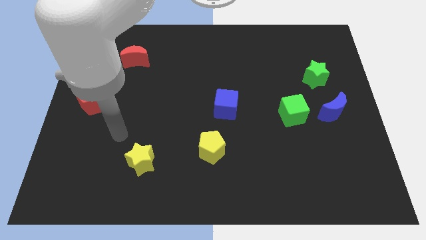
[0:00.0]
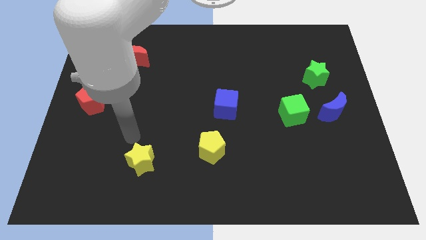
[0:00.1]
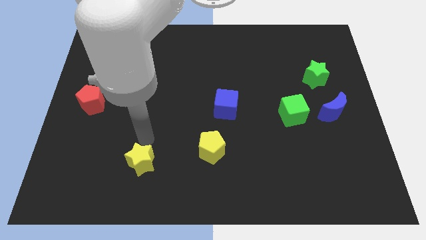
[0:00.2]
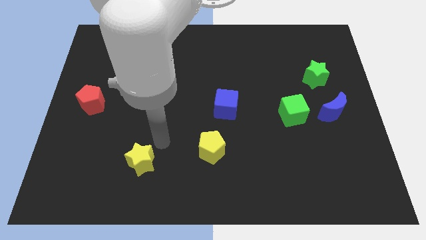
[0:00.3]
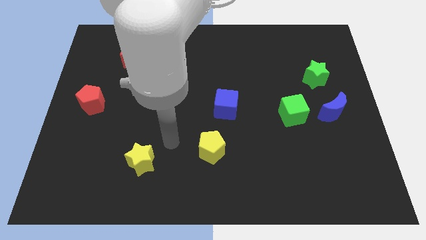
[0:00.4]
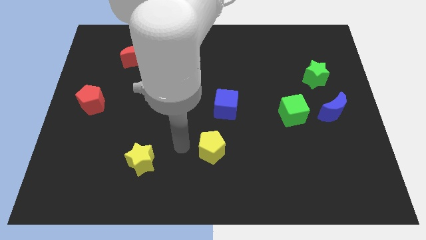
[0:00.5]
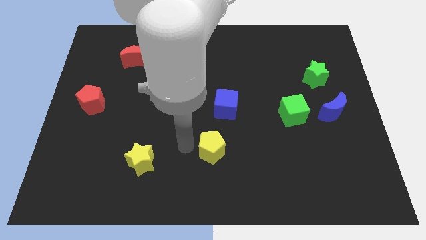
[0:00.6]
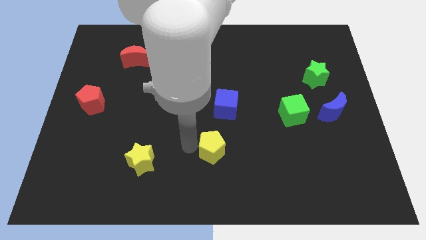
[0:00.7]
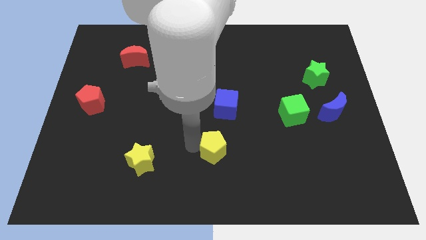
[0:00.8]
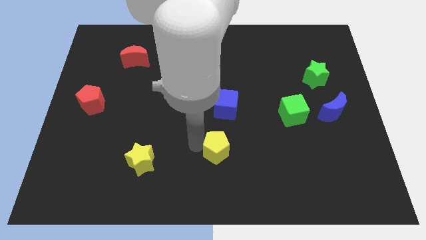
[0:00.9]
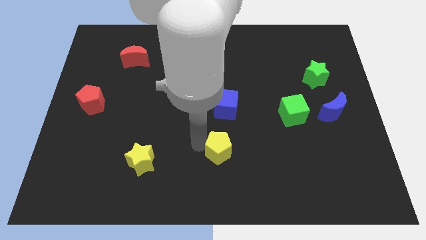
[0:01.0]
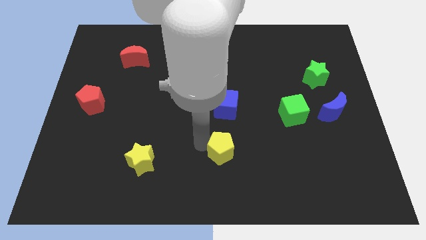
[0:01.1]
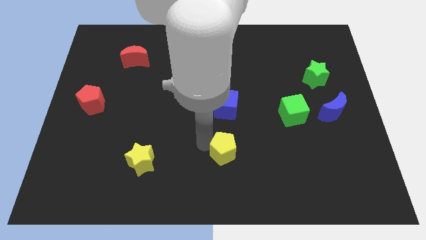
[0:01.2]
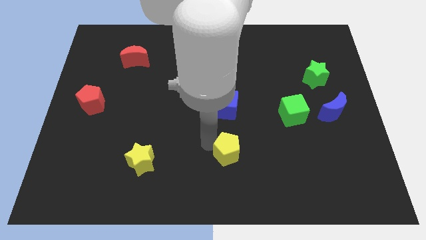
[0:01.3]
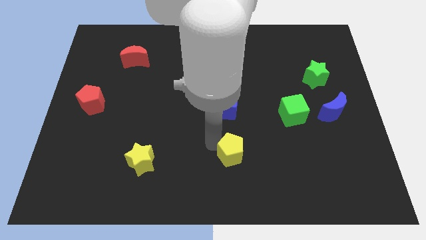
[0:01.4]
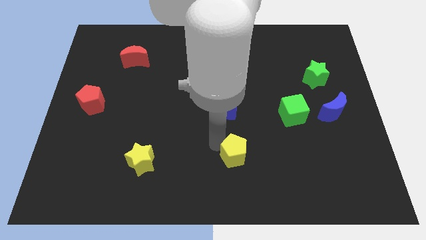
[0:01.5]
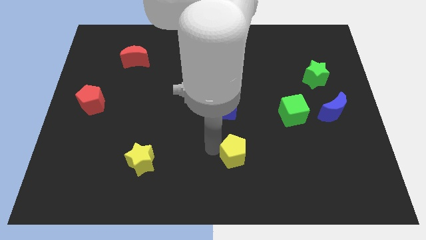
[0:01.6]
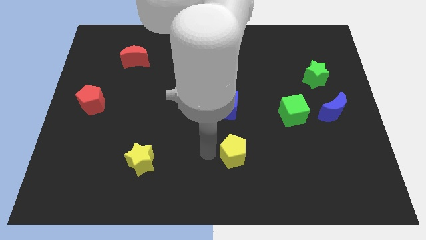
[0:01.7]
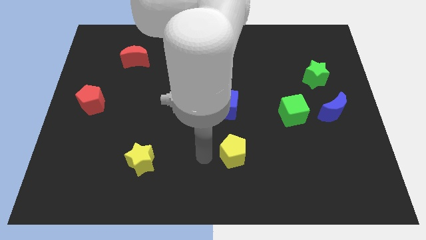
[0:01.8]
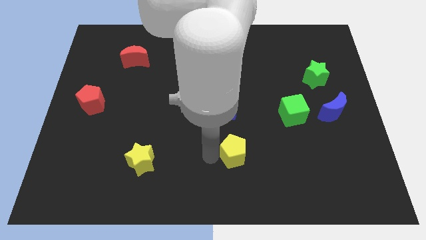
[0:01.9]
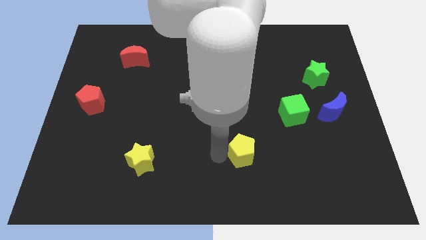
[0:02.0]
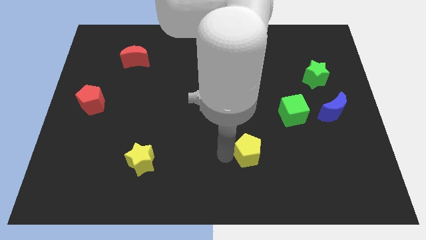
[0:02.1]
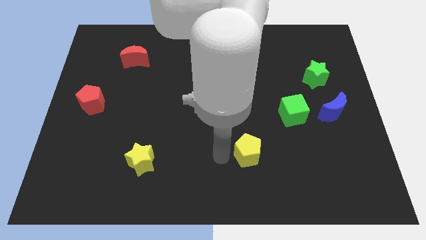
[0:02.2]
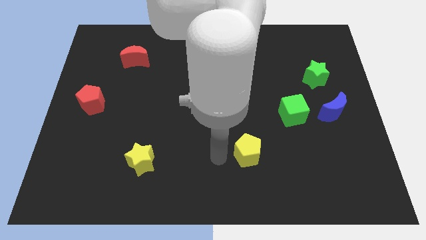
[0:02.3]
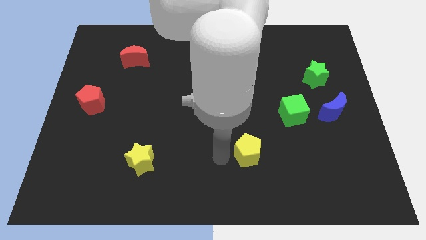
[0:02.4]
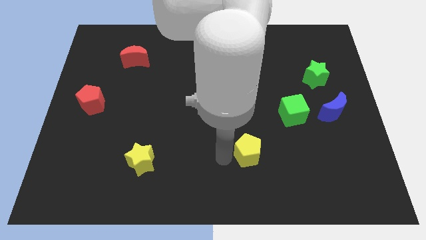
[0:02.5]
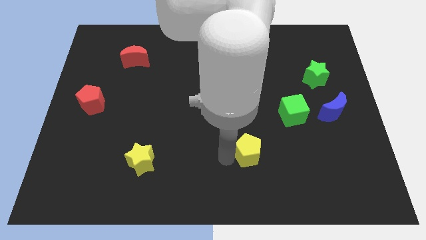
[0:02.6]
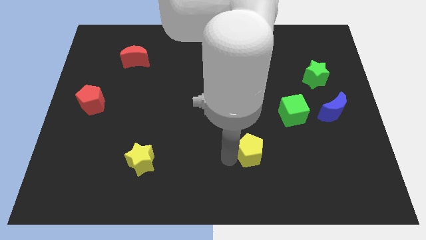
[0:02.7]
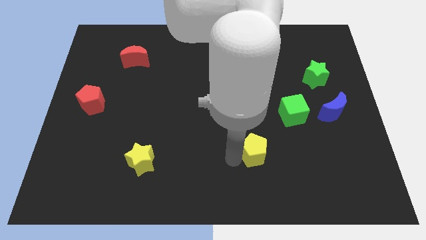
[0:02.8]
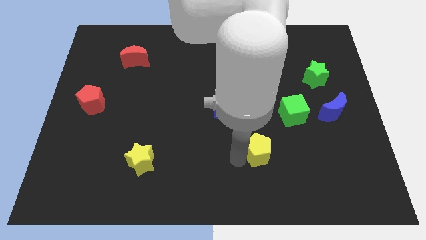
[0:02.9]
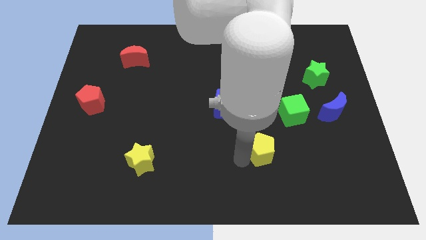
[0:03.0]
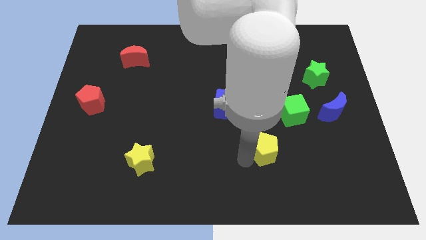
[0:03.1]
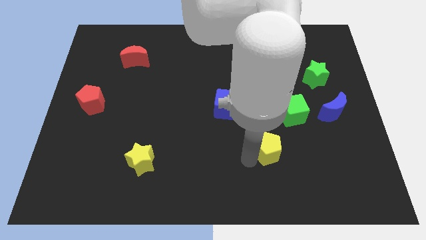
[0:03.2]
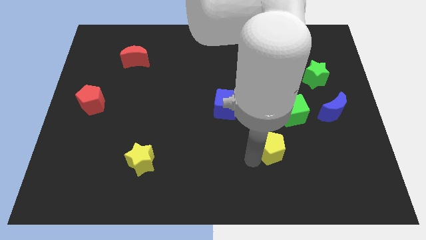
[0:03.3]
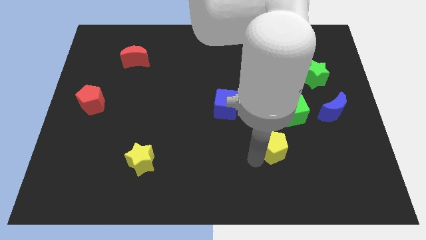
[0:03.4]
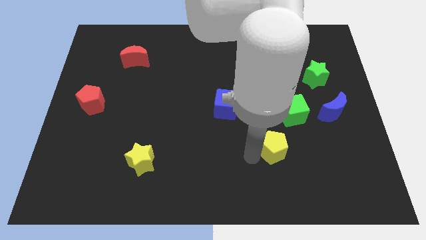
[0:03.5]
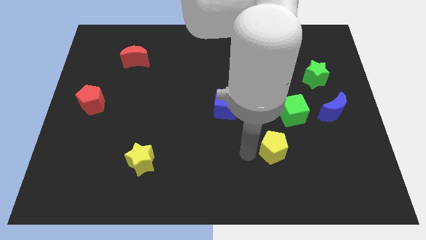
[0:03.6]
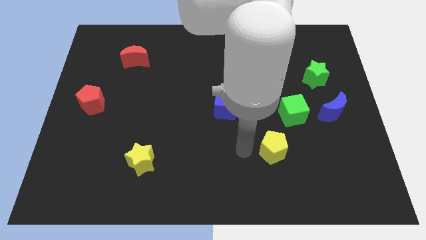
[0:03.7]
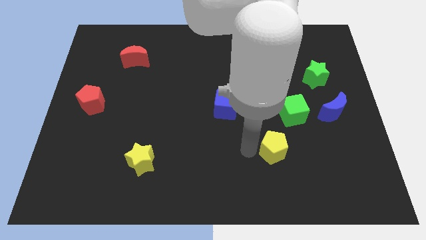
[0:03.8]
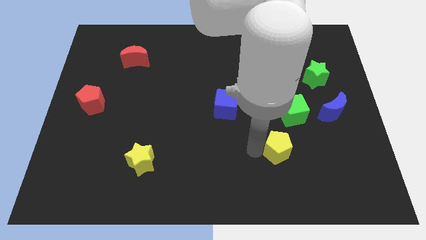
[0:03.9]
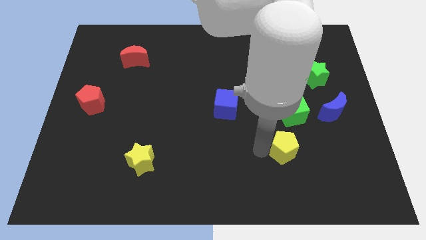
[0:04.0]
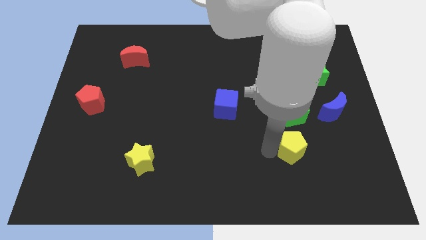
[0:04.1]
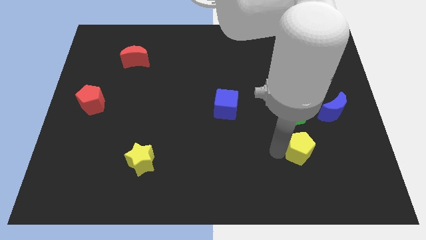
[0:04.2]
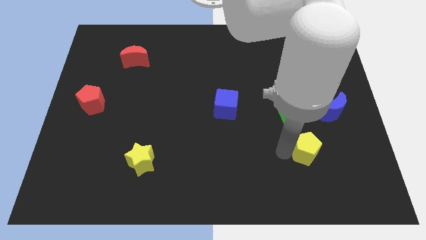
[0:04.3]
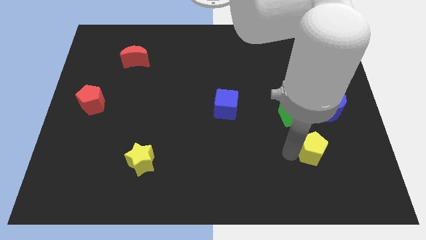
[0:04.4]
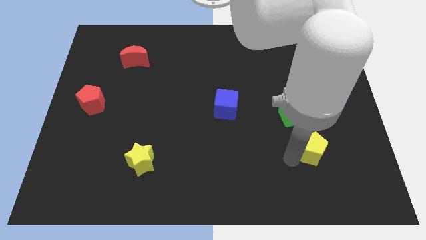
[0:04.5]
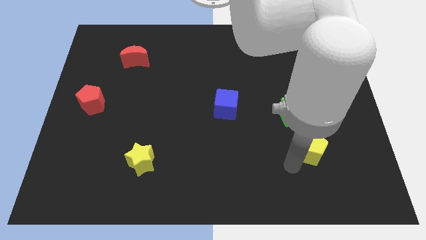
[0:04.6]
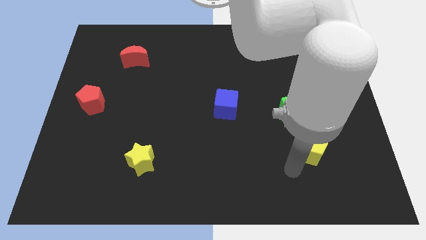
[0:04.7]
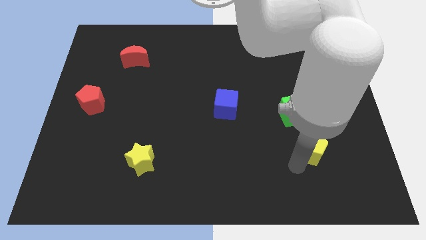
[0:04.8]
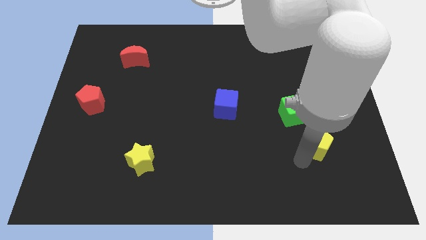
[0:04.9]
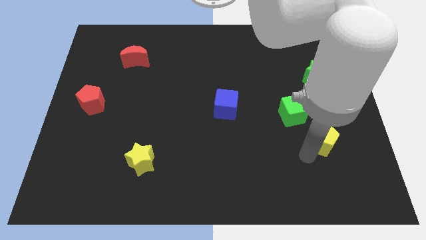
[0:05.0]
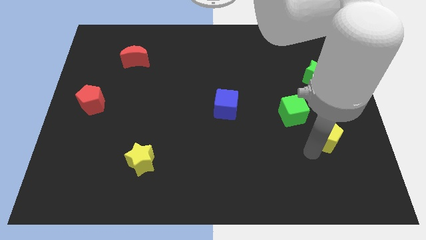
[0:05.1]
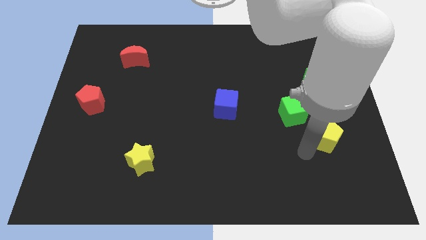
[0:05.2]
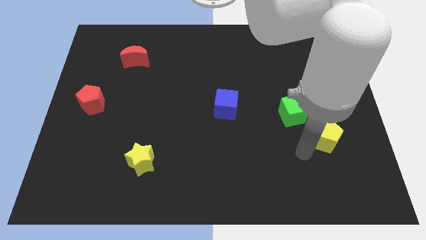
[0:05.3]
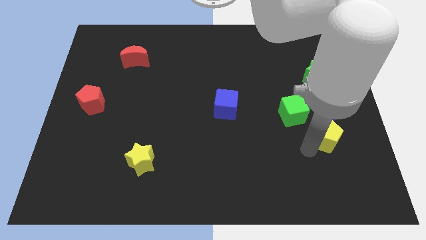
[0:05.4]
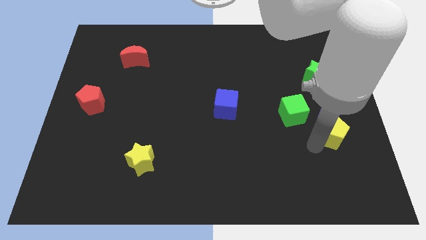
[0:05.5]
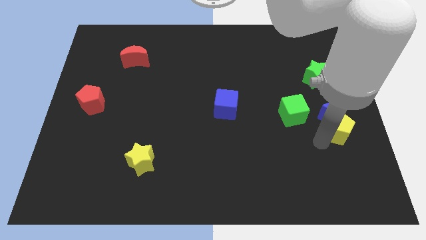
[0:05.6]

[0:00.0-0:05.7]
move the yellow pentagon to the right side

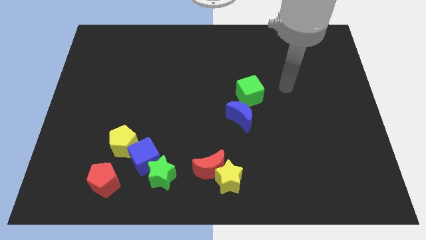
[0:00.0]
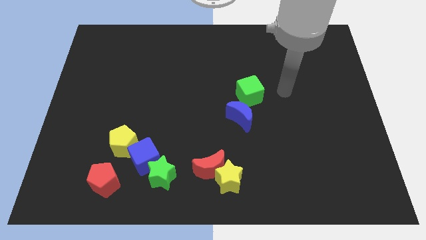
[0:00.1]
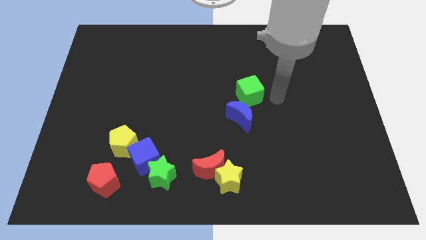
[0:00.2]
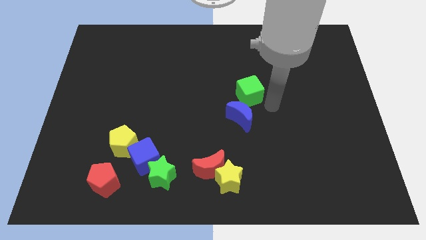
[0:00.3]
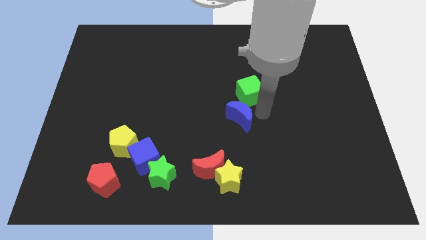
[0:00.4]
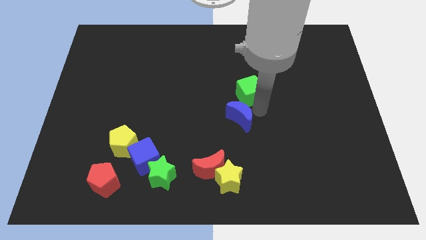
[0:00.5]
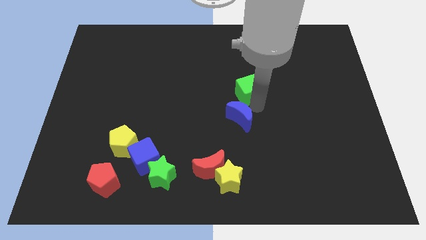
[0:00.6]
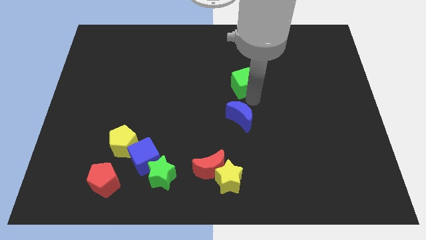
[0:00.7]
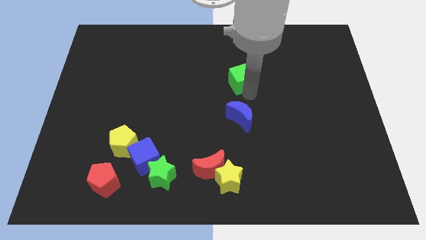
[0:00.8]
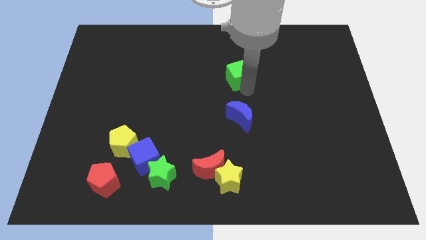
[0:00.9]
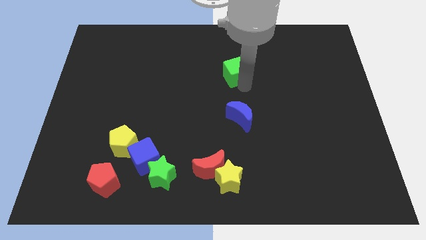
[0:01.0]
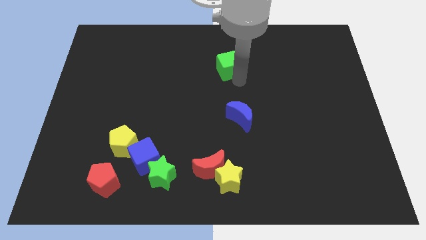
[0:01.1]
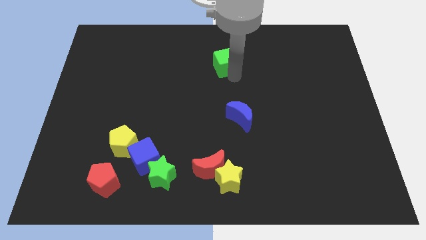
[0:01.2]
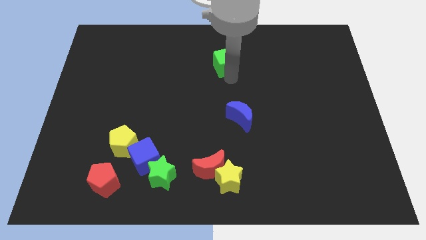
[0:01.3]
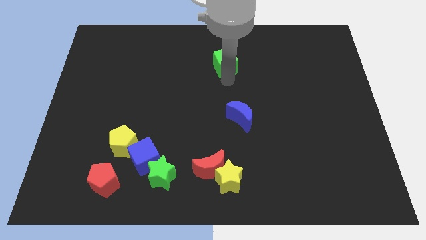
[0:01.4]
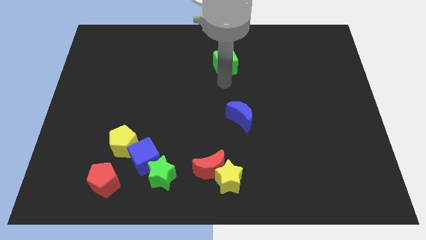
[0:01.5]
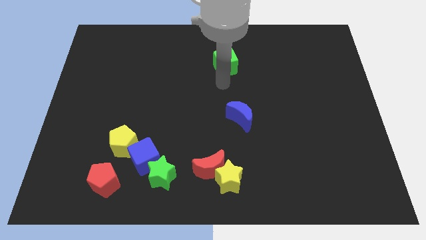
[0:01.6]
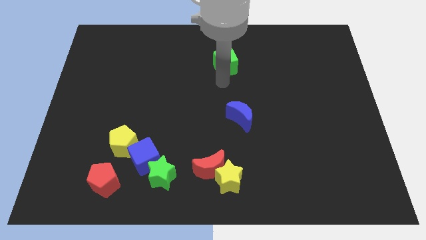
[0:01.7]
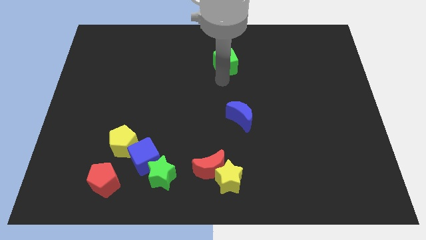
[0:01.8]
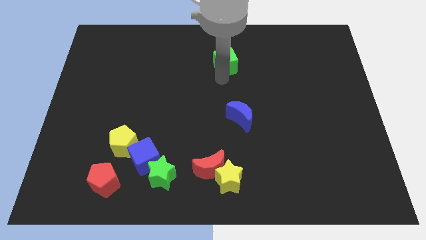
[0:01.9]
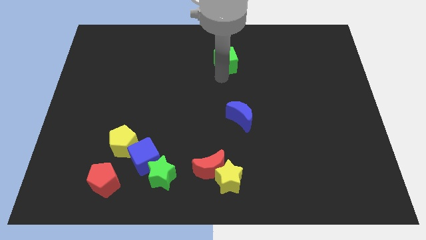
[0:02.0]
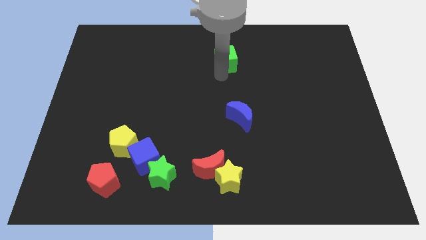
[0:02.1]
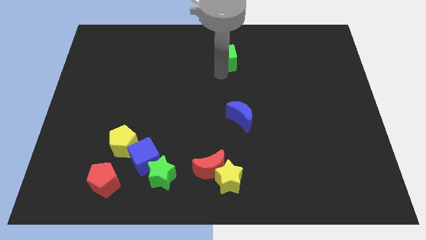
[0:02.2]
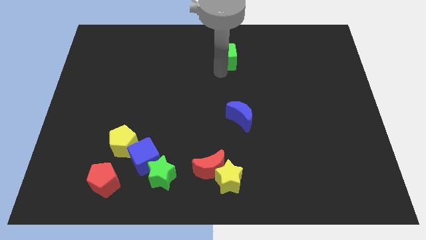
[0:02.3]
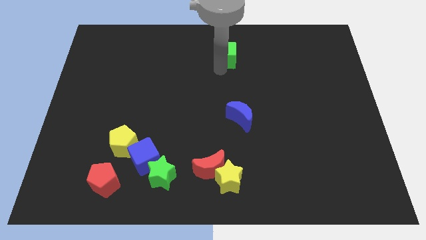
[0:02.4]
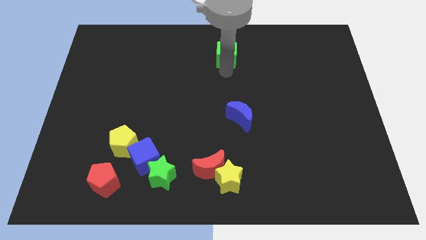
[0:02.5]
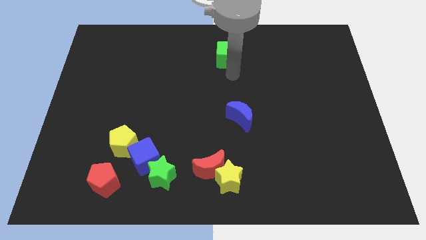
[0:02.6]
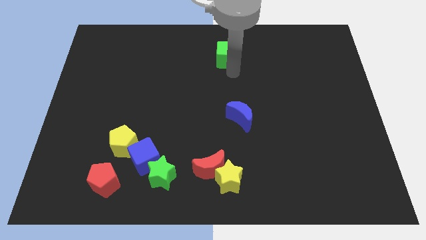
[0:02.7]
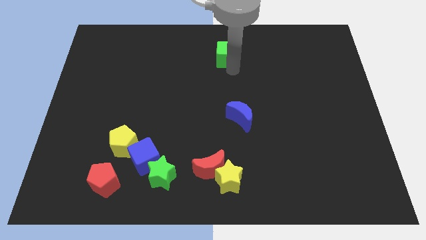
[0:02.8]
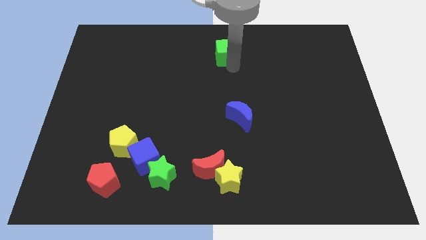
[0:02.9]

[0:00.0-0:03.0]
move the green cube to the towards your base
